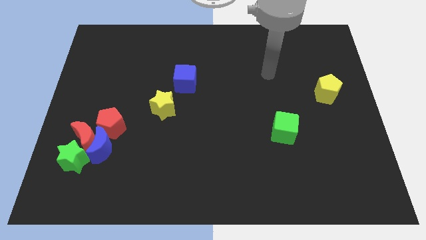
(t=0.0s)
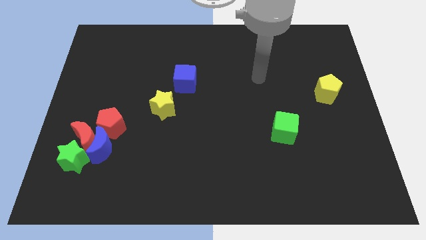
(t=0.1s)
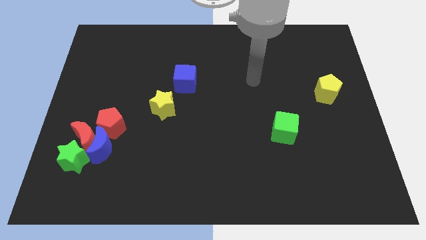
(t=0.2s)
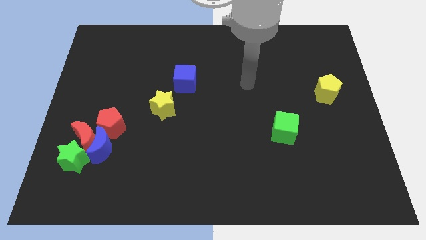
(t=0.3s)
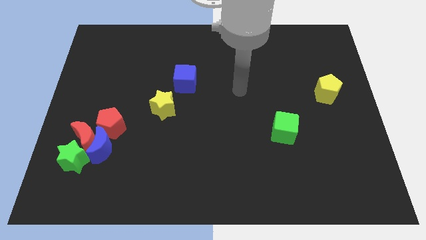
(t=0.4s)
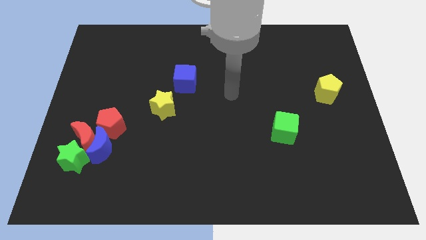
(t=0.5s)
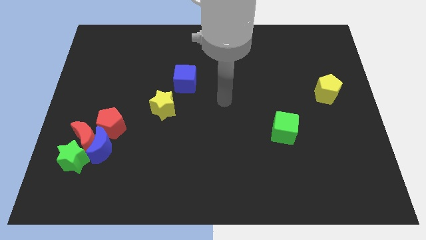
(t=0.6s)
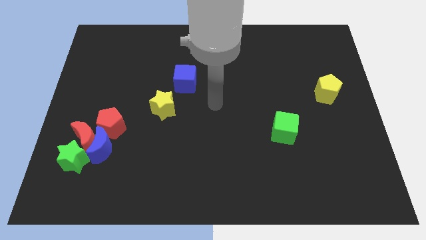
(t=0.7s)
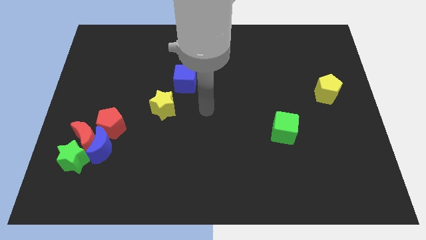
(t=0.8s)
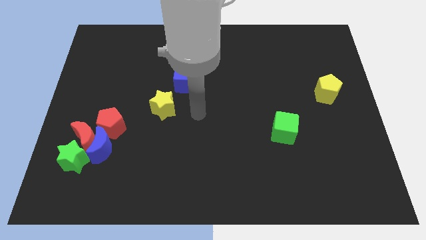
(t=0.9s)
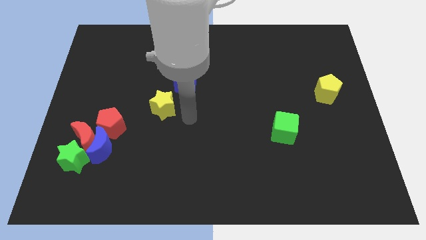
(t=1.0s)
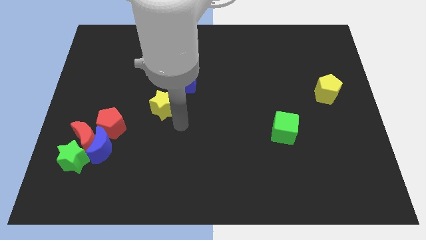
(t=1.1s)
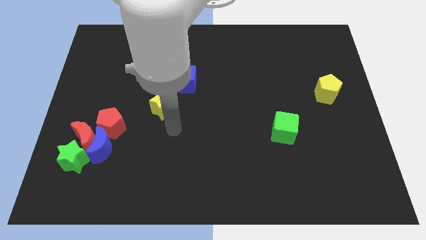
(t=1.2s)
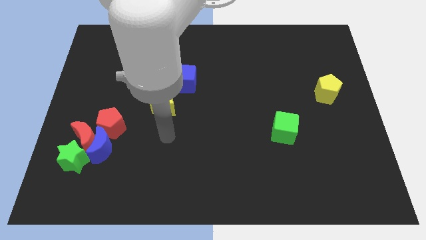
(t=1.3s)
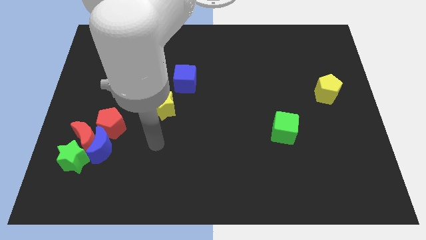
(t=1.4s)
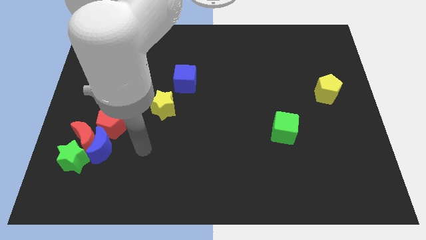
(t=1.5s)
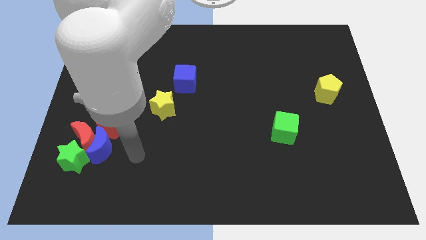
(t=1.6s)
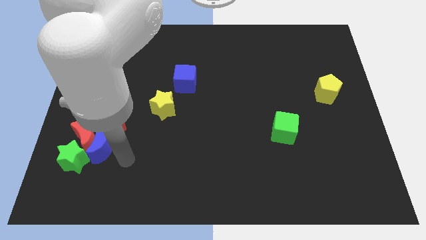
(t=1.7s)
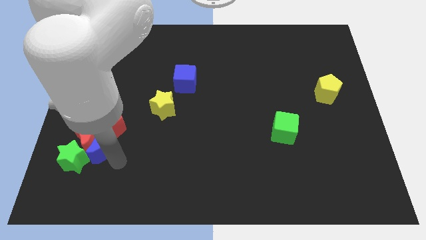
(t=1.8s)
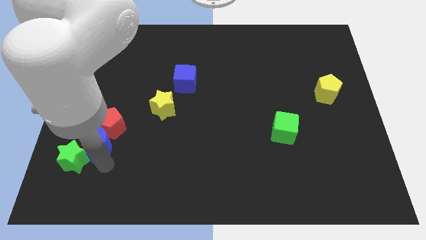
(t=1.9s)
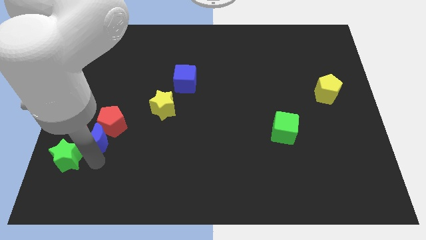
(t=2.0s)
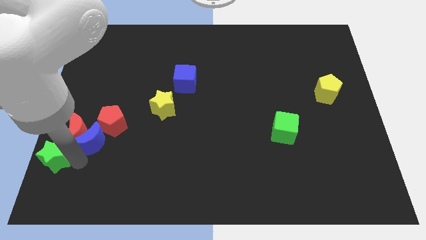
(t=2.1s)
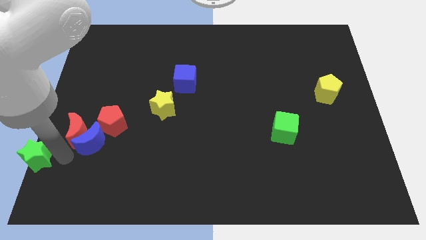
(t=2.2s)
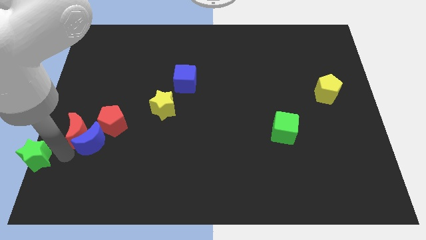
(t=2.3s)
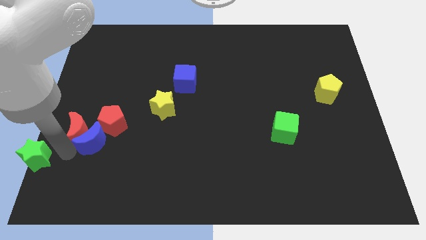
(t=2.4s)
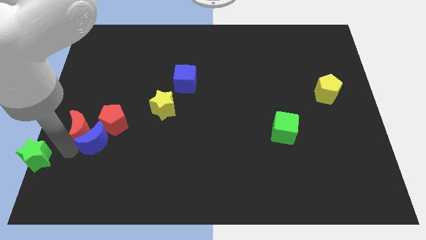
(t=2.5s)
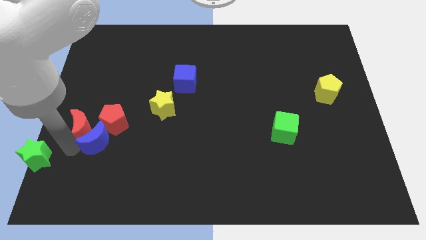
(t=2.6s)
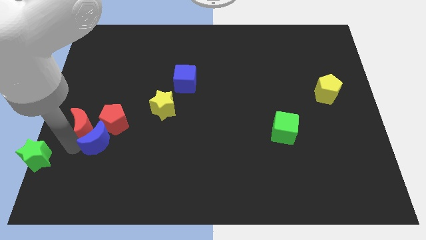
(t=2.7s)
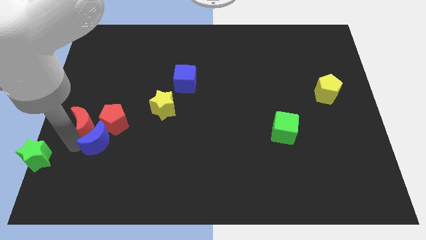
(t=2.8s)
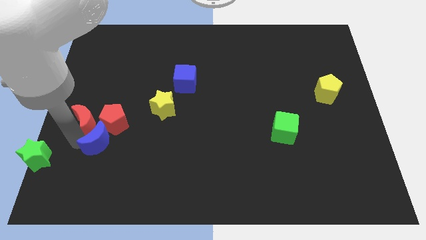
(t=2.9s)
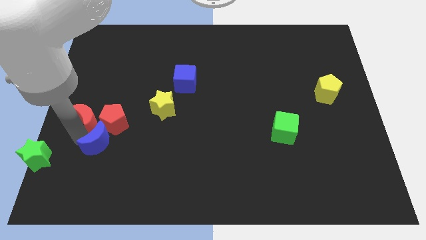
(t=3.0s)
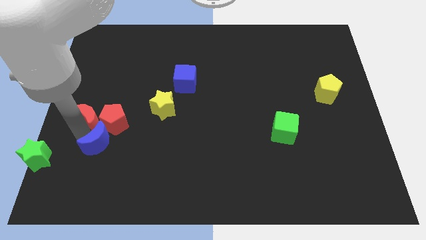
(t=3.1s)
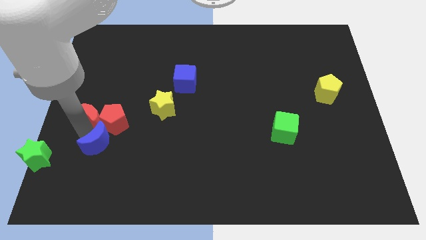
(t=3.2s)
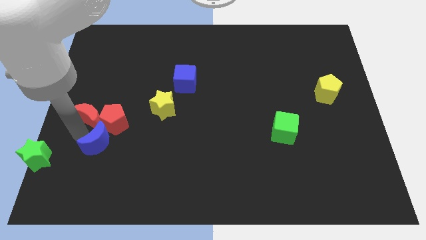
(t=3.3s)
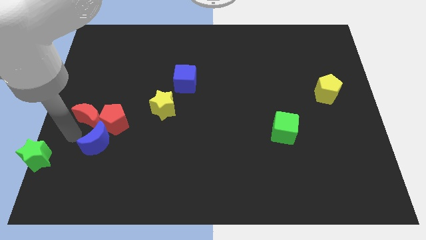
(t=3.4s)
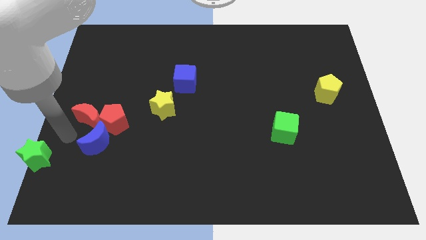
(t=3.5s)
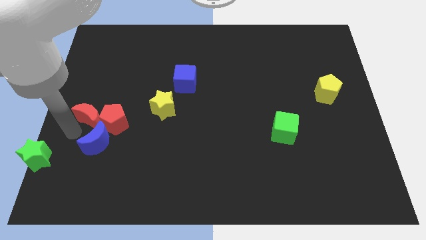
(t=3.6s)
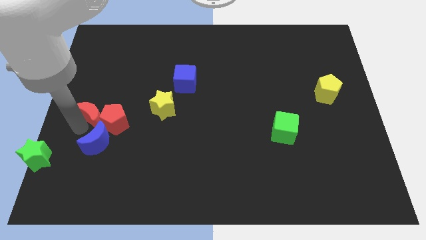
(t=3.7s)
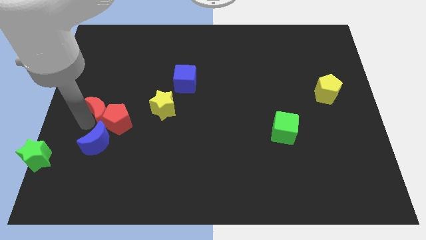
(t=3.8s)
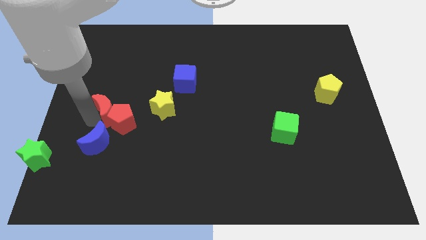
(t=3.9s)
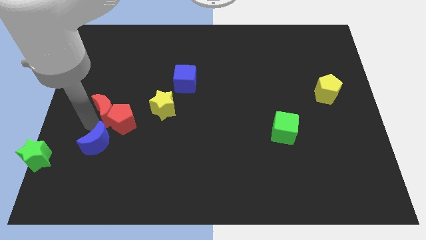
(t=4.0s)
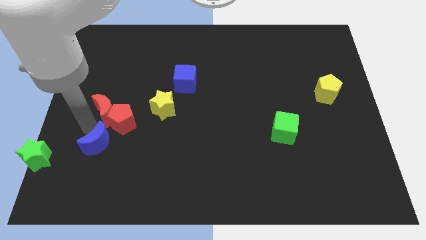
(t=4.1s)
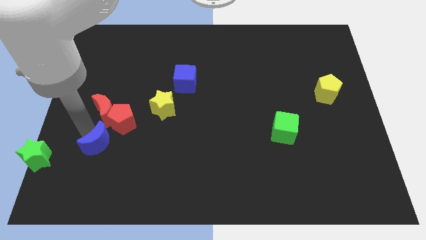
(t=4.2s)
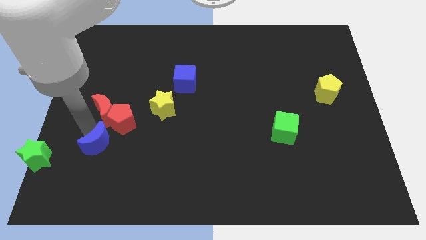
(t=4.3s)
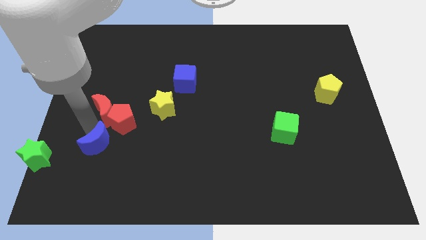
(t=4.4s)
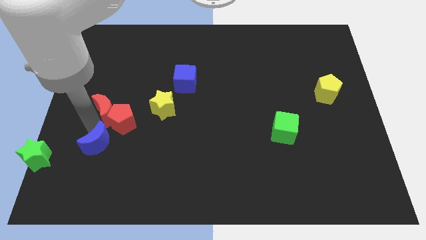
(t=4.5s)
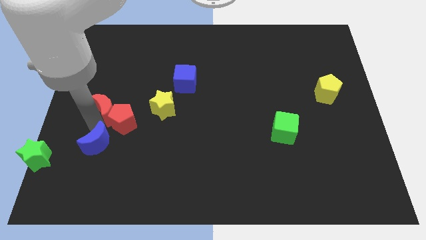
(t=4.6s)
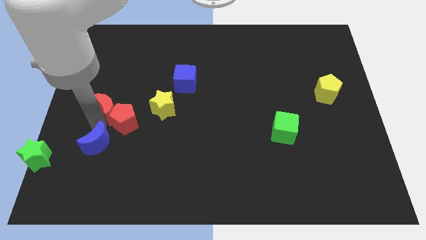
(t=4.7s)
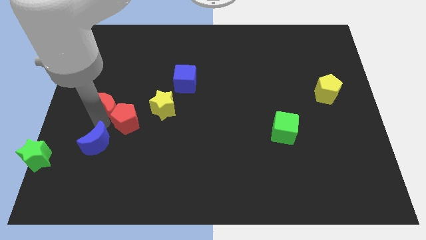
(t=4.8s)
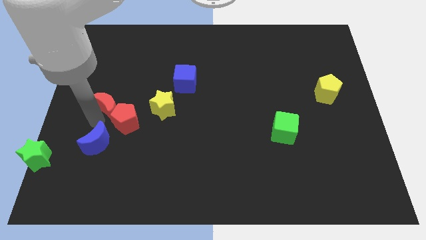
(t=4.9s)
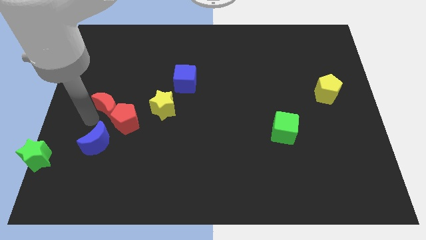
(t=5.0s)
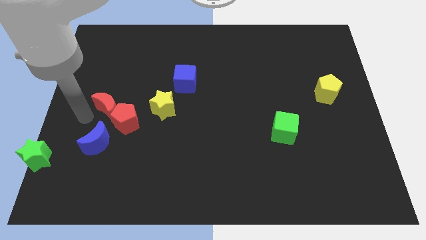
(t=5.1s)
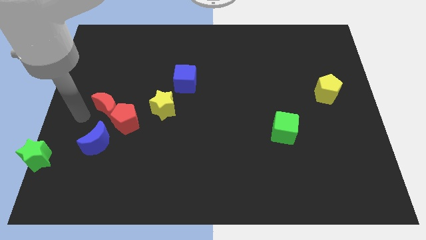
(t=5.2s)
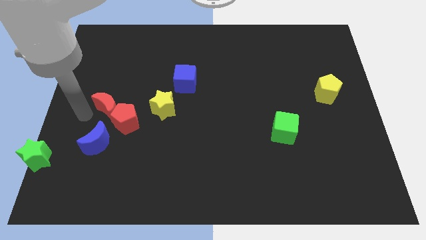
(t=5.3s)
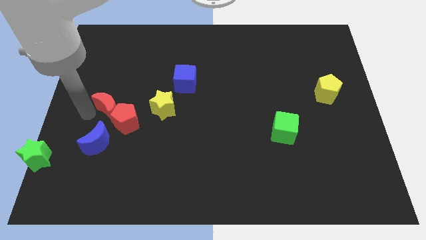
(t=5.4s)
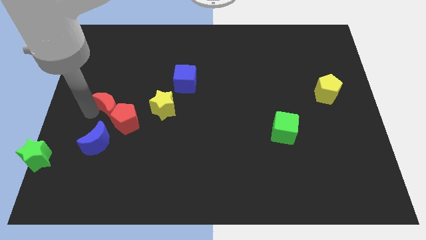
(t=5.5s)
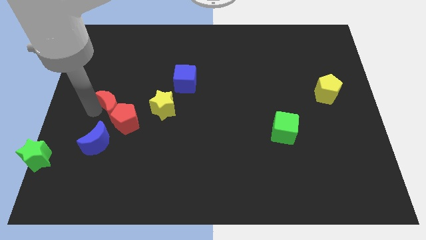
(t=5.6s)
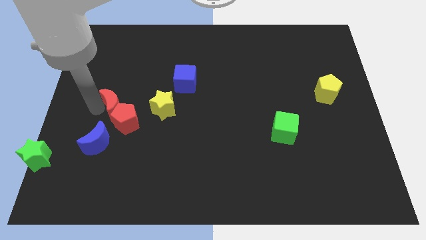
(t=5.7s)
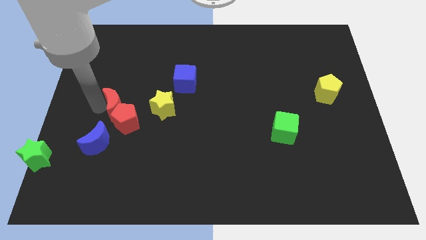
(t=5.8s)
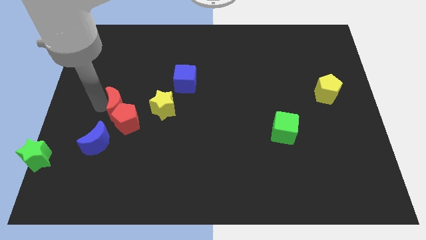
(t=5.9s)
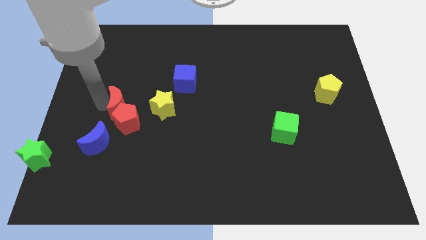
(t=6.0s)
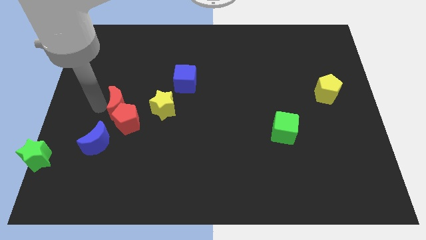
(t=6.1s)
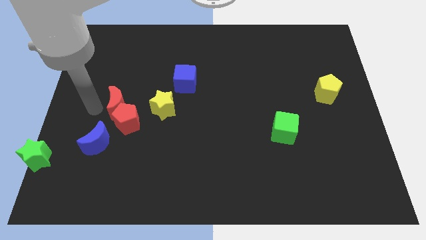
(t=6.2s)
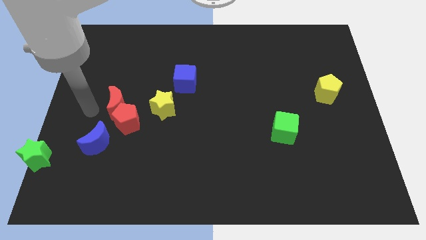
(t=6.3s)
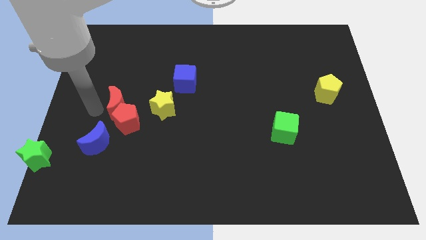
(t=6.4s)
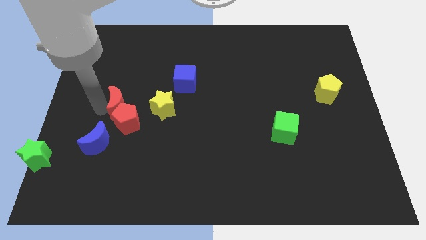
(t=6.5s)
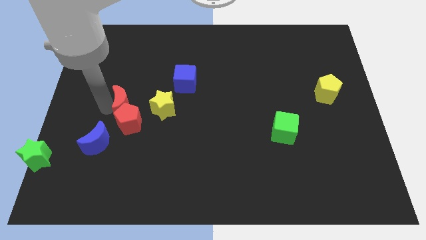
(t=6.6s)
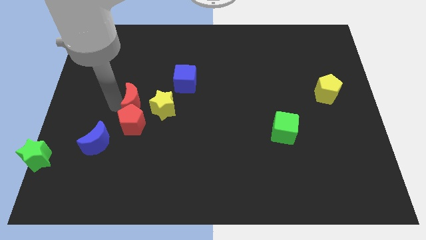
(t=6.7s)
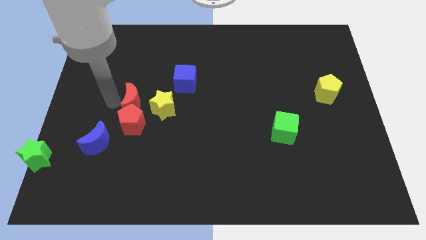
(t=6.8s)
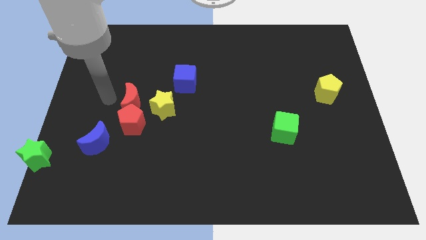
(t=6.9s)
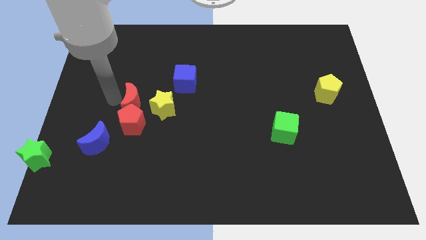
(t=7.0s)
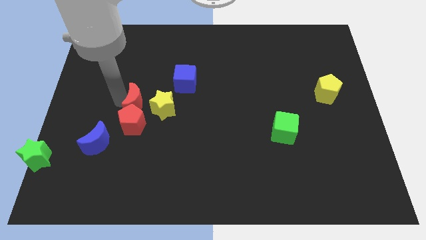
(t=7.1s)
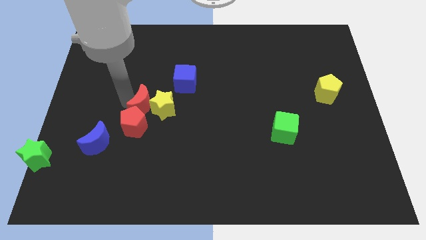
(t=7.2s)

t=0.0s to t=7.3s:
push the red moon close to the yellow star
